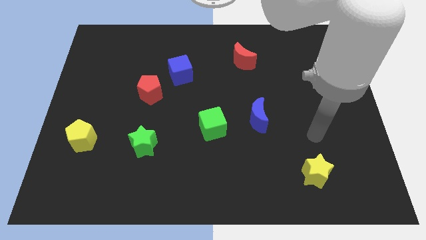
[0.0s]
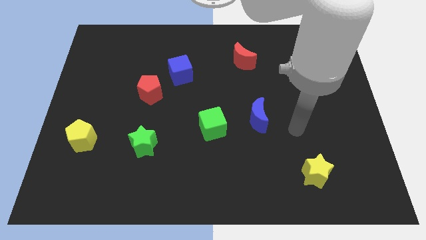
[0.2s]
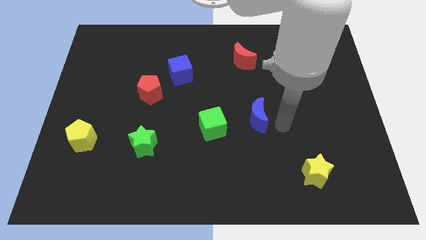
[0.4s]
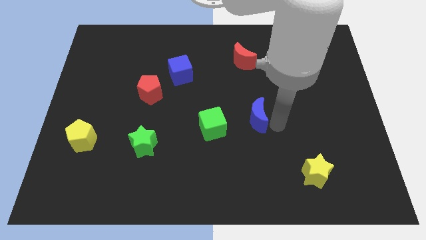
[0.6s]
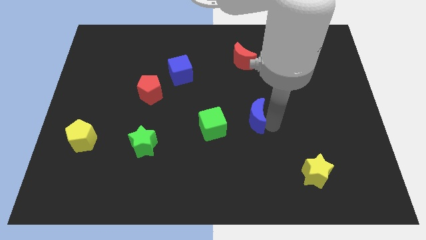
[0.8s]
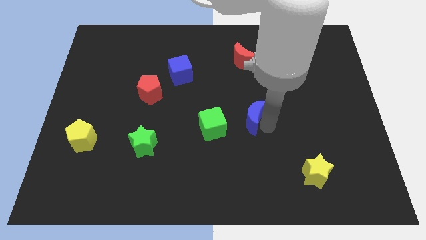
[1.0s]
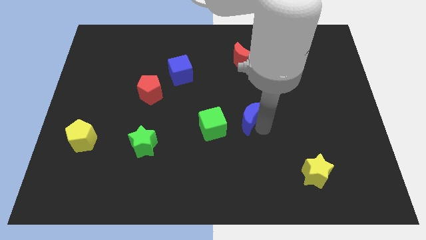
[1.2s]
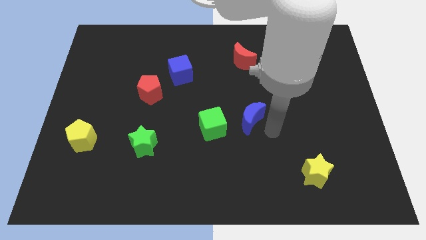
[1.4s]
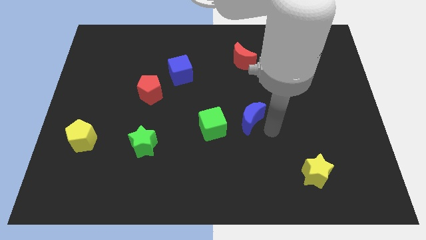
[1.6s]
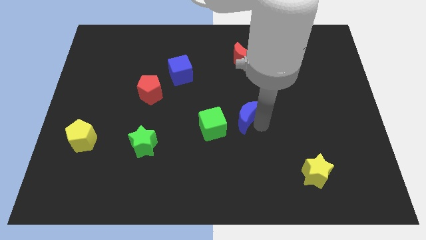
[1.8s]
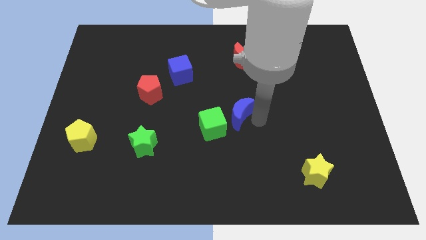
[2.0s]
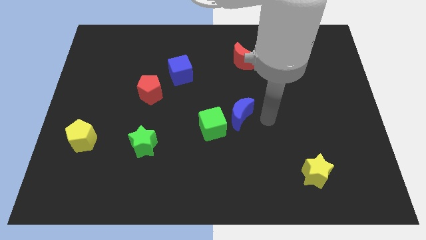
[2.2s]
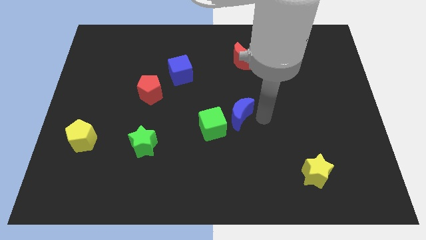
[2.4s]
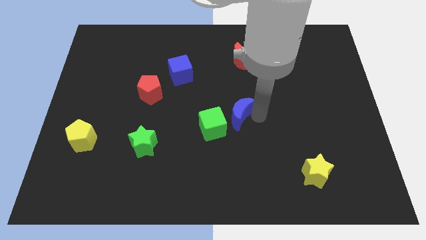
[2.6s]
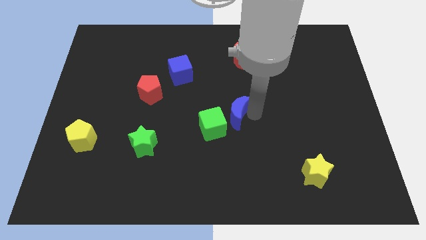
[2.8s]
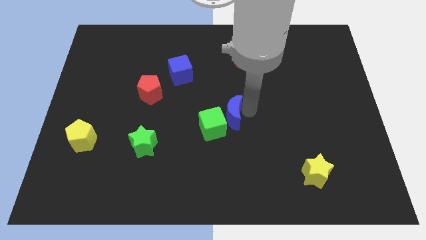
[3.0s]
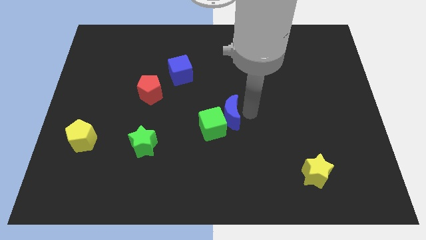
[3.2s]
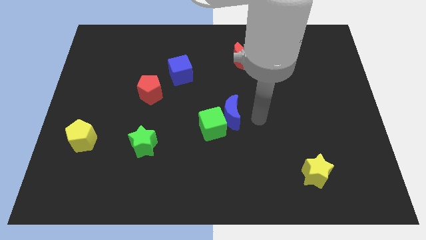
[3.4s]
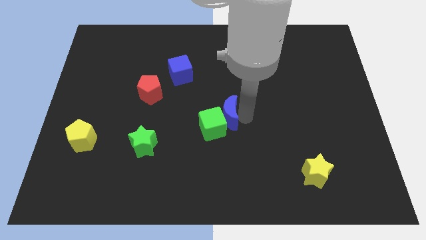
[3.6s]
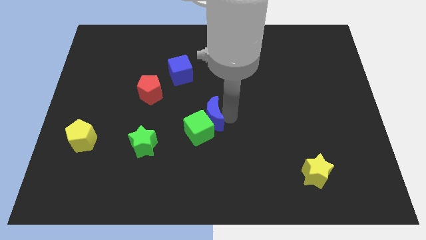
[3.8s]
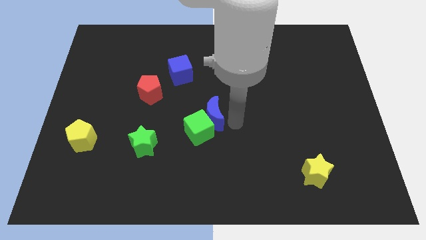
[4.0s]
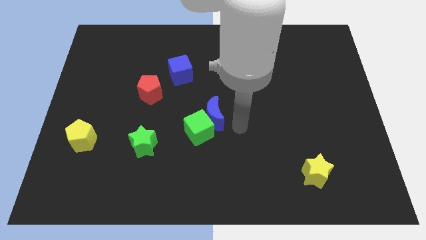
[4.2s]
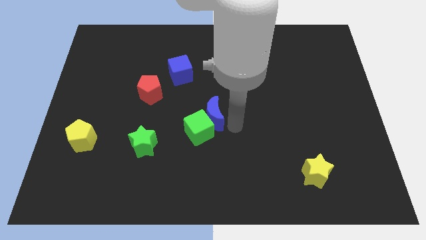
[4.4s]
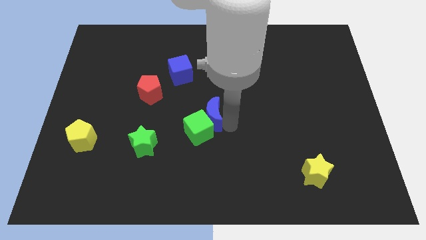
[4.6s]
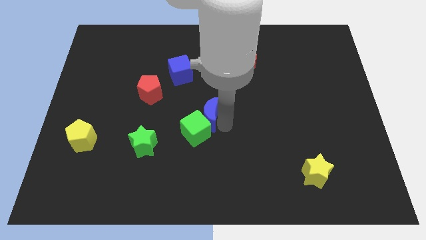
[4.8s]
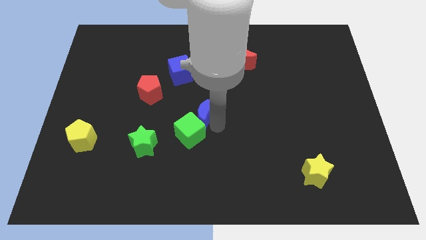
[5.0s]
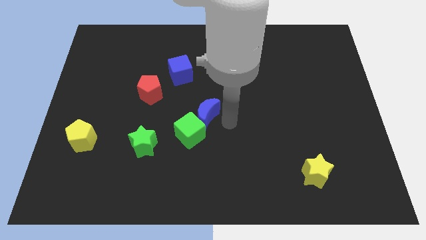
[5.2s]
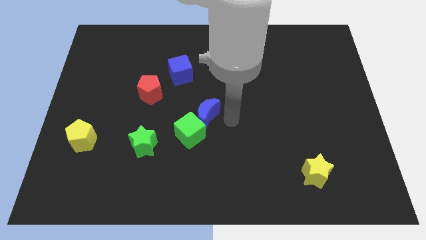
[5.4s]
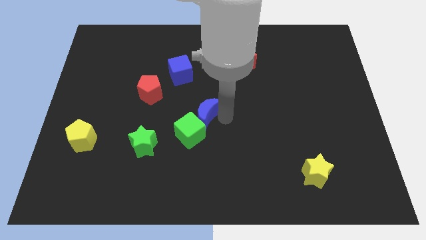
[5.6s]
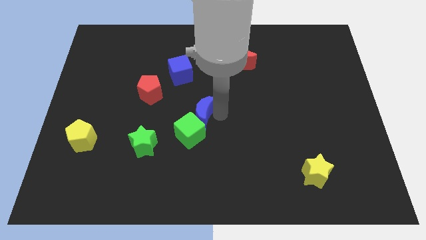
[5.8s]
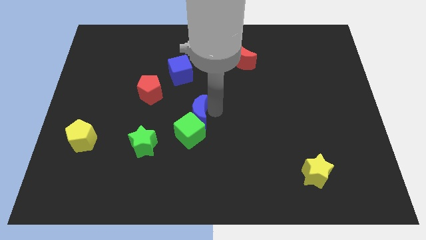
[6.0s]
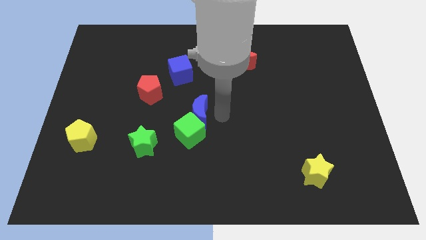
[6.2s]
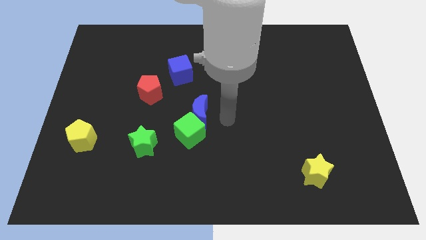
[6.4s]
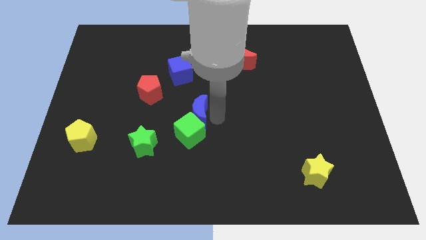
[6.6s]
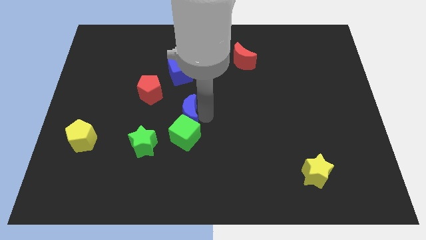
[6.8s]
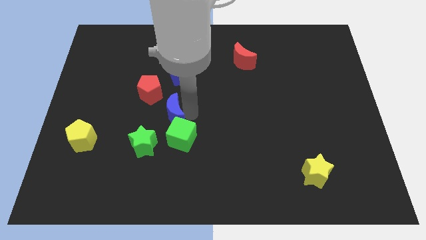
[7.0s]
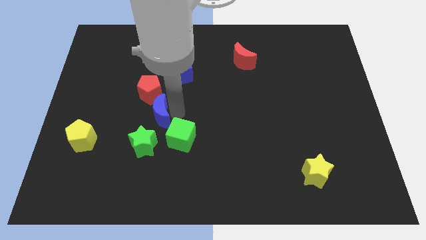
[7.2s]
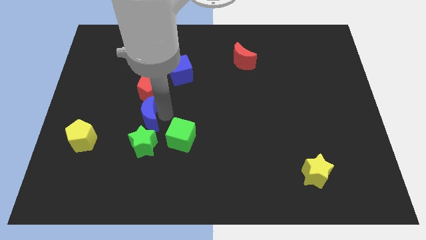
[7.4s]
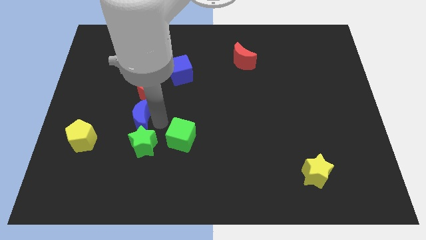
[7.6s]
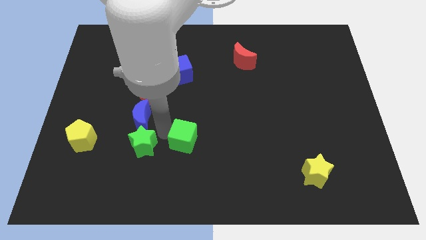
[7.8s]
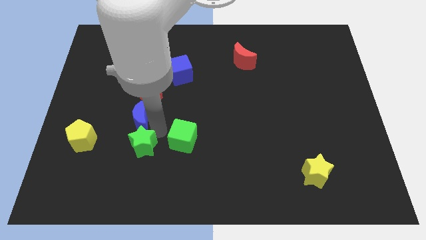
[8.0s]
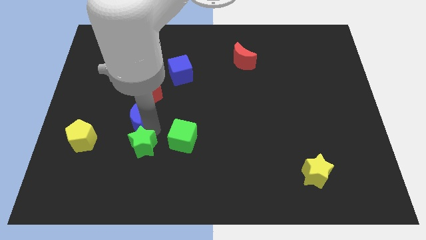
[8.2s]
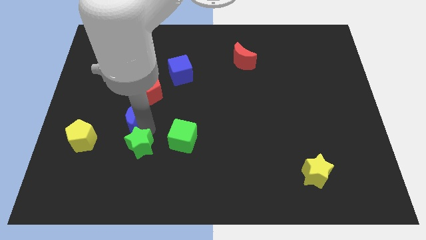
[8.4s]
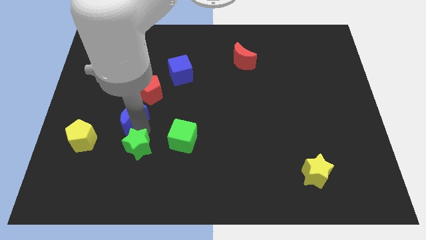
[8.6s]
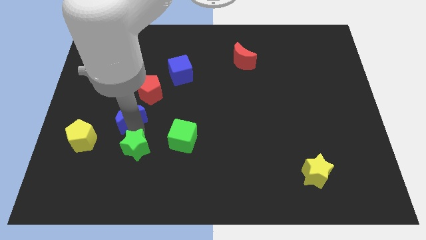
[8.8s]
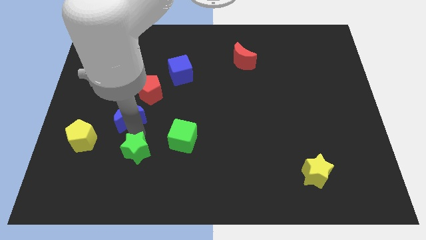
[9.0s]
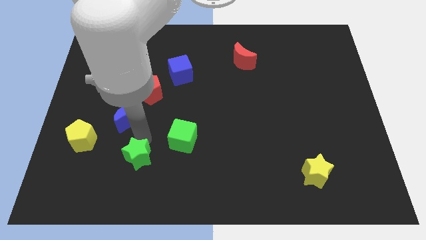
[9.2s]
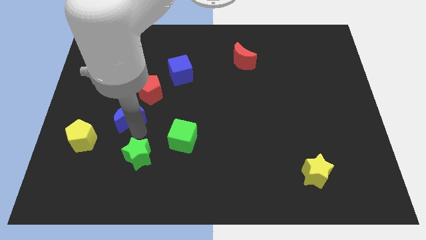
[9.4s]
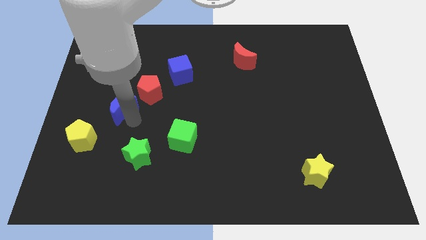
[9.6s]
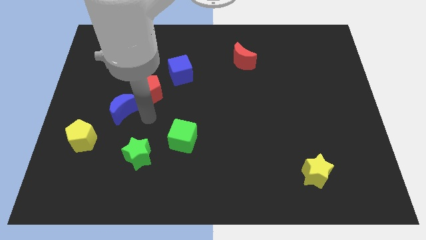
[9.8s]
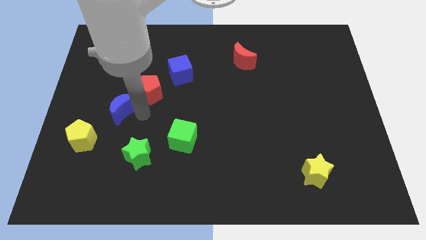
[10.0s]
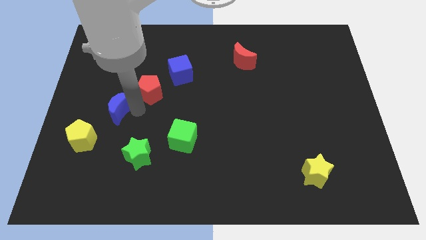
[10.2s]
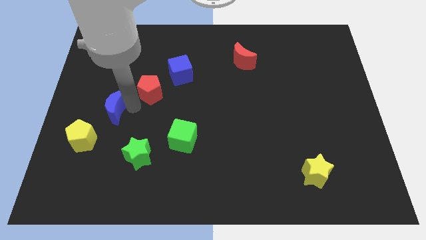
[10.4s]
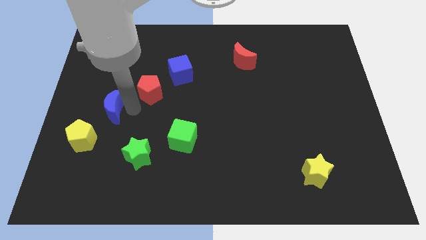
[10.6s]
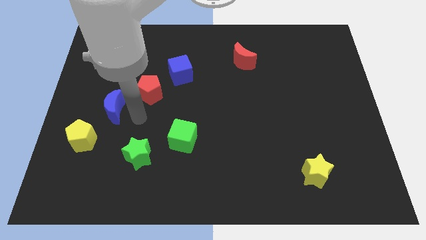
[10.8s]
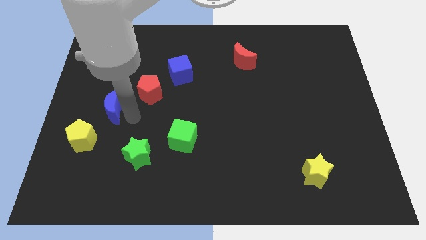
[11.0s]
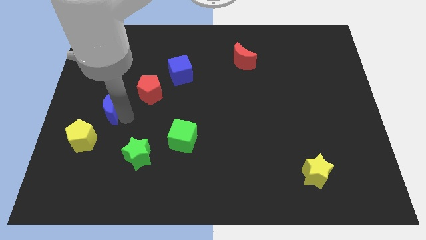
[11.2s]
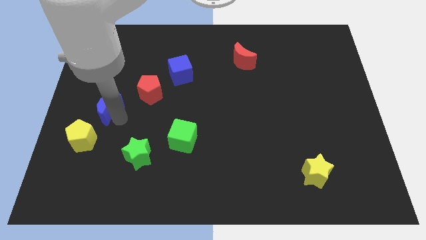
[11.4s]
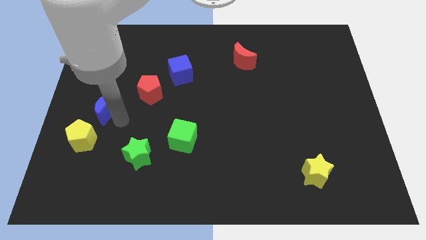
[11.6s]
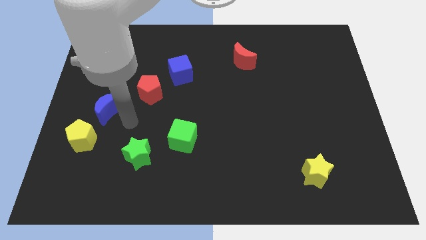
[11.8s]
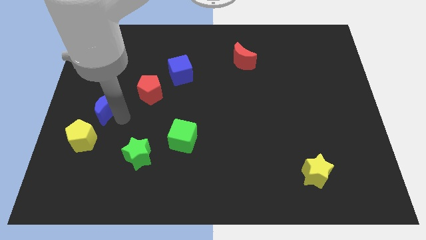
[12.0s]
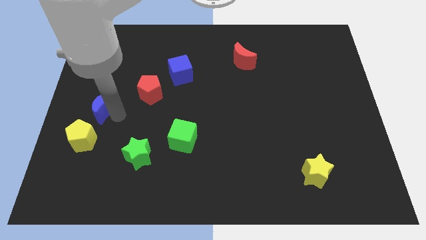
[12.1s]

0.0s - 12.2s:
slide the blue moon to the left side of the board
